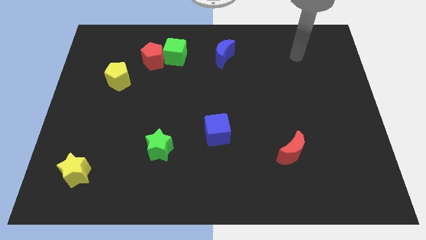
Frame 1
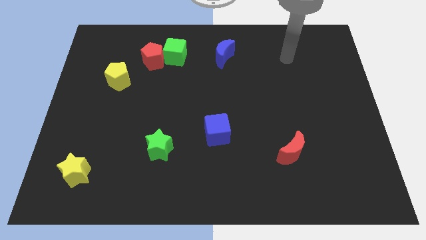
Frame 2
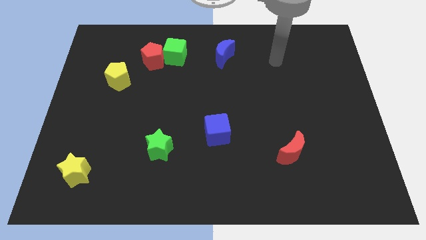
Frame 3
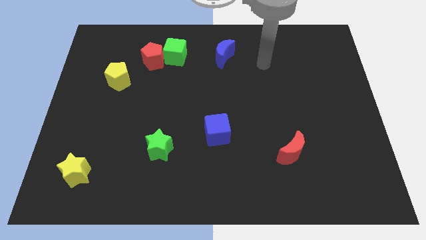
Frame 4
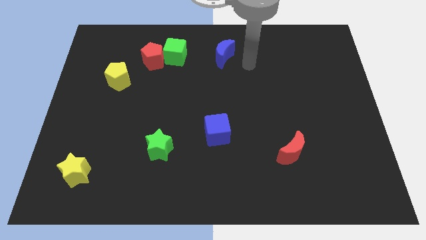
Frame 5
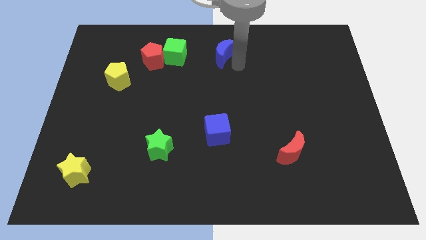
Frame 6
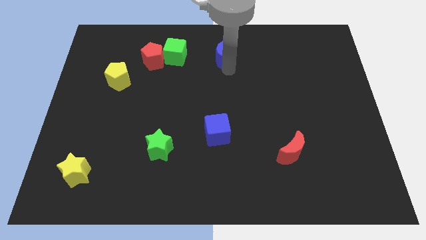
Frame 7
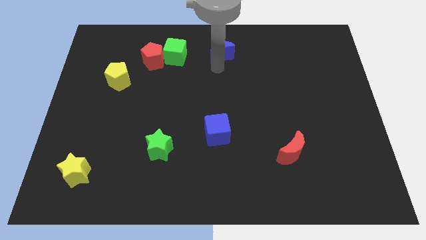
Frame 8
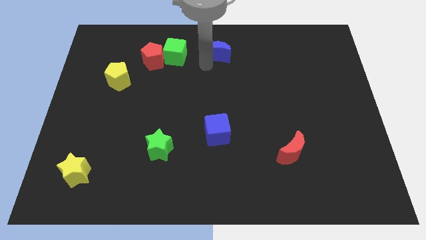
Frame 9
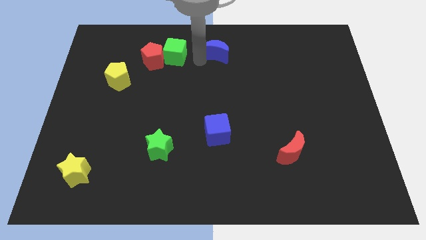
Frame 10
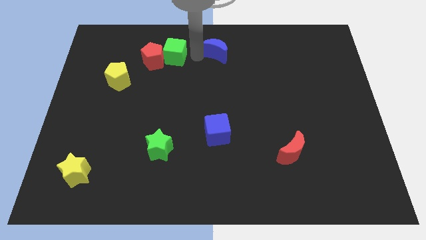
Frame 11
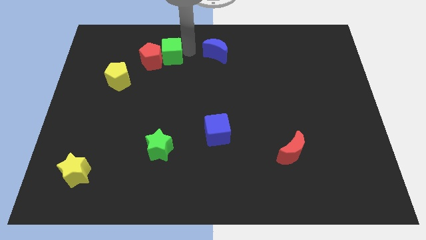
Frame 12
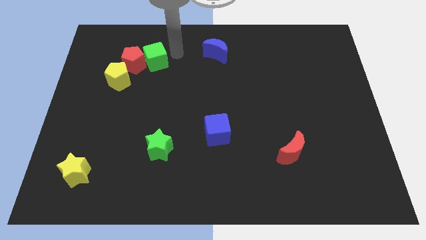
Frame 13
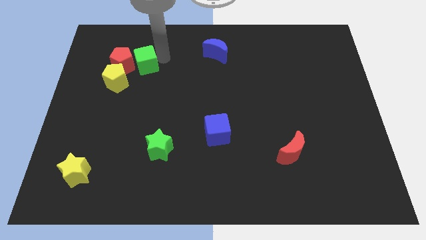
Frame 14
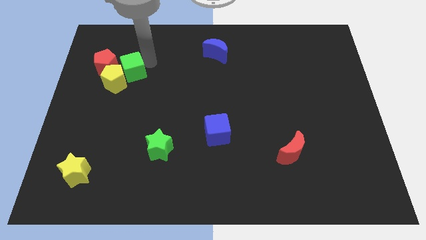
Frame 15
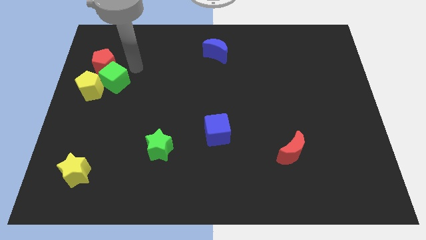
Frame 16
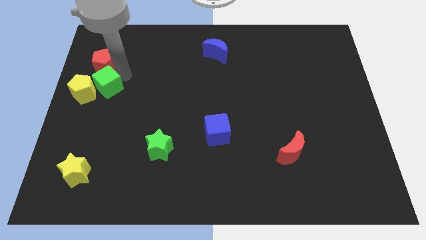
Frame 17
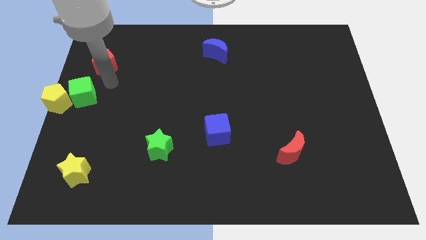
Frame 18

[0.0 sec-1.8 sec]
separate the red pentagon from the green cube

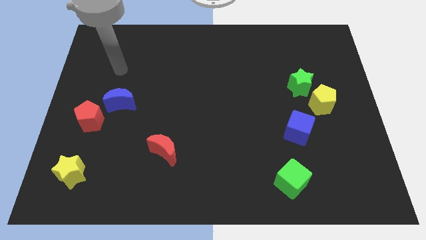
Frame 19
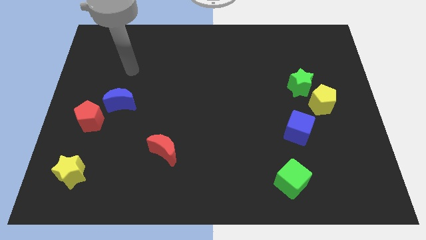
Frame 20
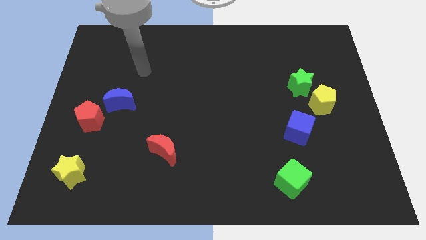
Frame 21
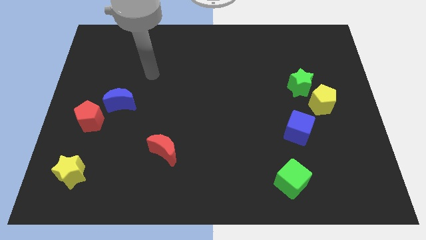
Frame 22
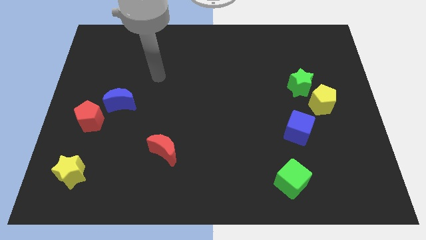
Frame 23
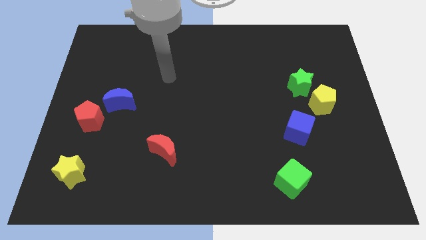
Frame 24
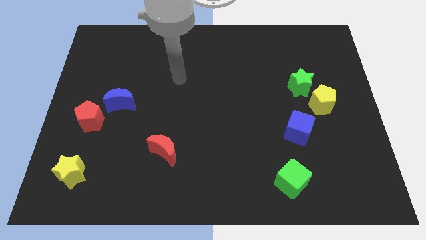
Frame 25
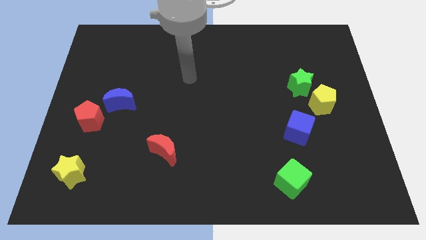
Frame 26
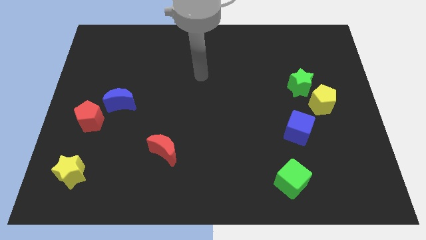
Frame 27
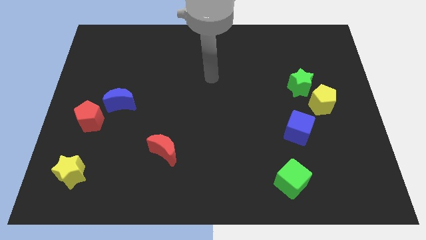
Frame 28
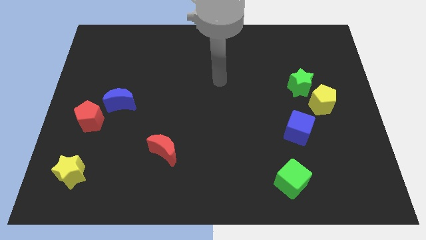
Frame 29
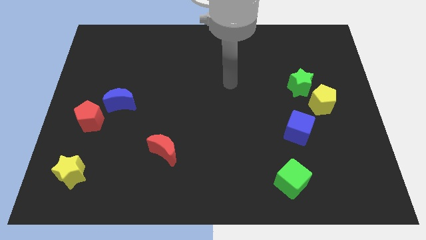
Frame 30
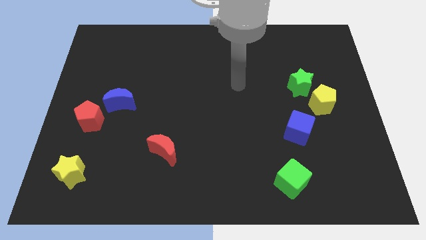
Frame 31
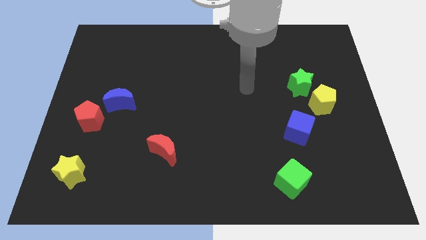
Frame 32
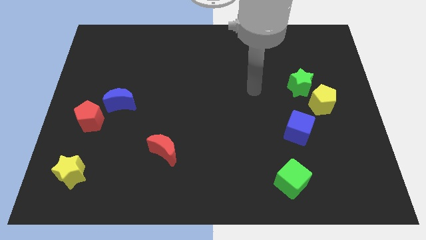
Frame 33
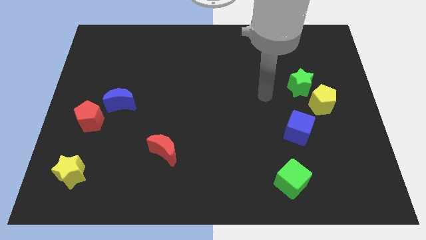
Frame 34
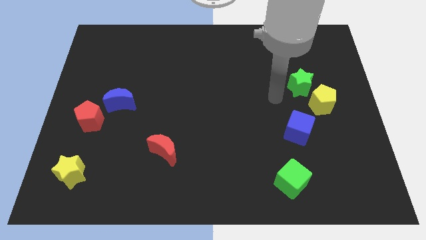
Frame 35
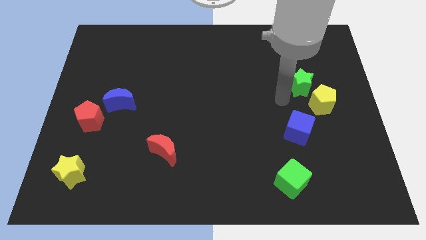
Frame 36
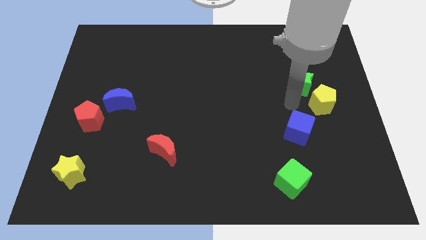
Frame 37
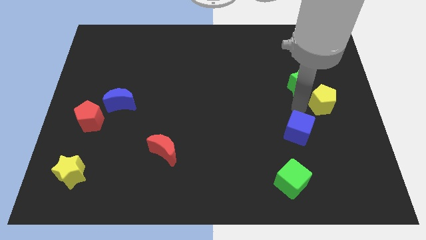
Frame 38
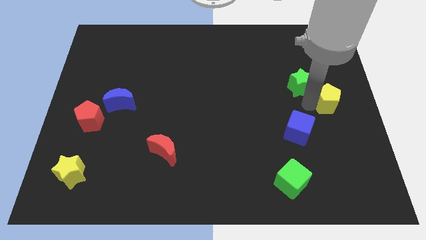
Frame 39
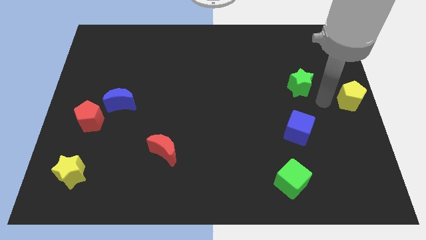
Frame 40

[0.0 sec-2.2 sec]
move the green star away from the yellow pentagon

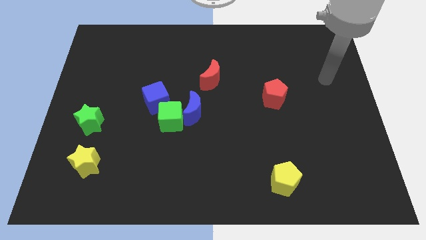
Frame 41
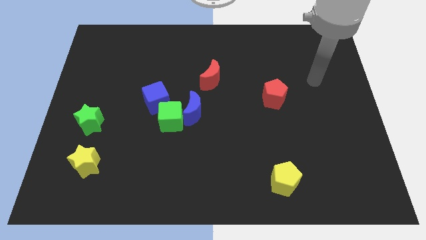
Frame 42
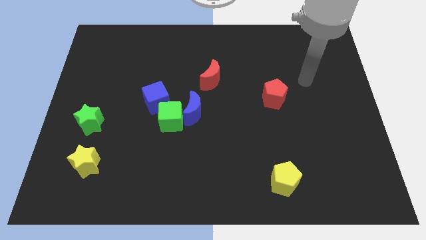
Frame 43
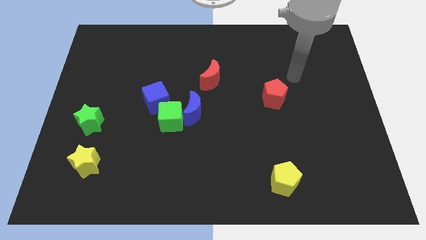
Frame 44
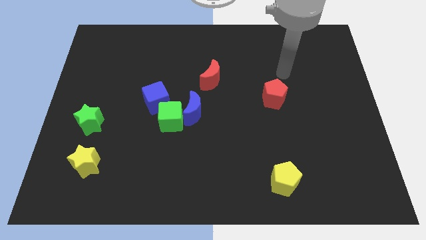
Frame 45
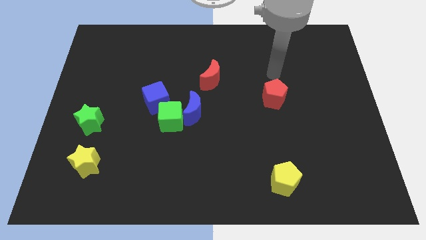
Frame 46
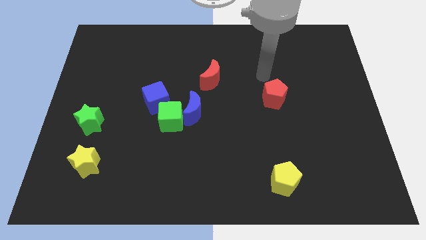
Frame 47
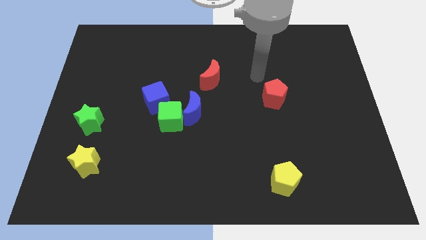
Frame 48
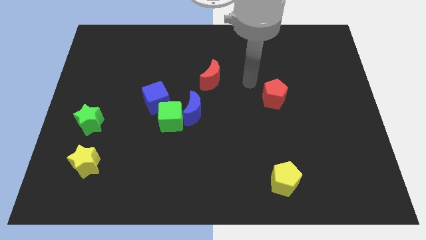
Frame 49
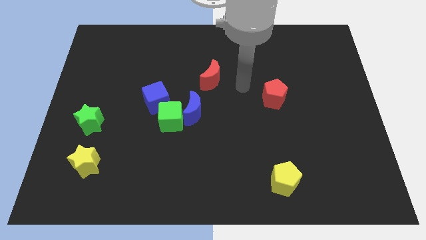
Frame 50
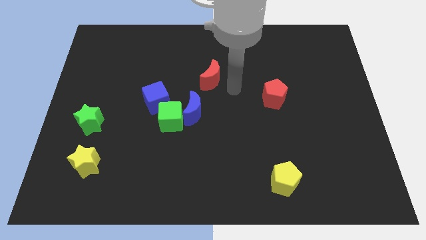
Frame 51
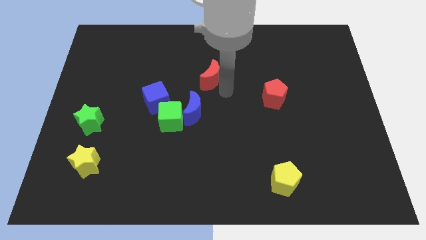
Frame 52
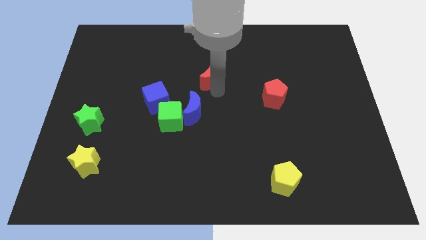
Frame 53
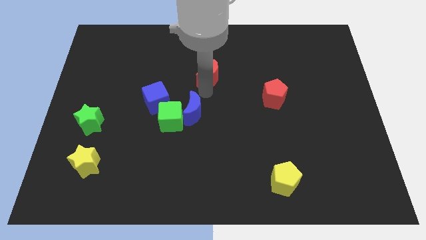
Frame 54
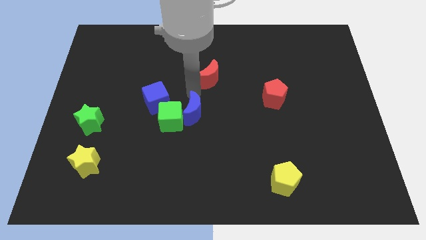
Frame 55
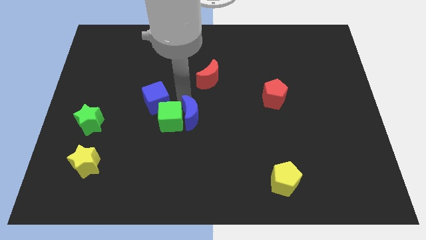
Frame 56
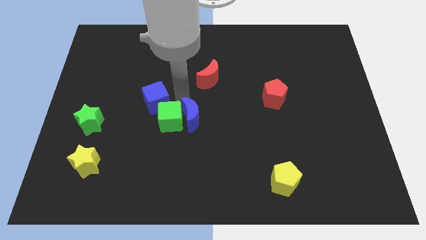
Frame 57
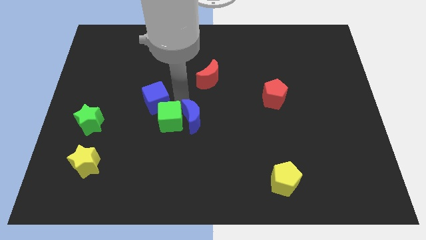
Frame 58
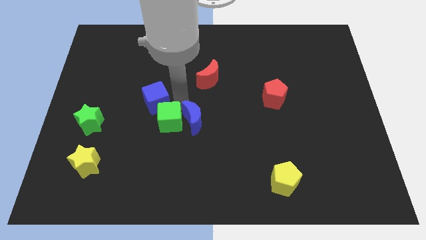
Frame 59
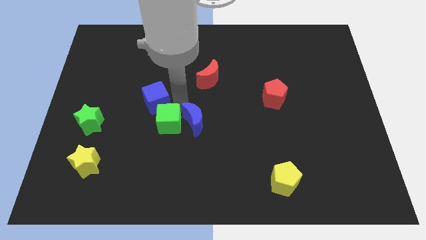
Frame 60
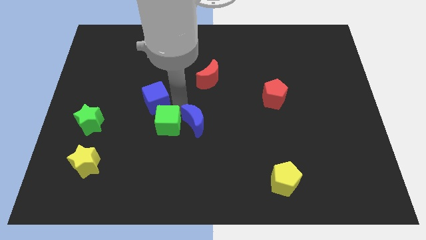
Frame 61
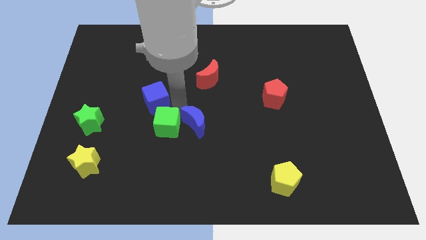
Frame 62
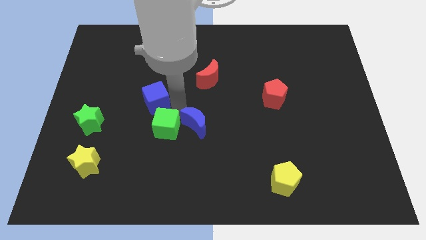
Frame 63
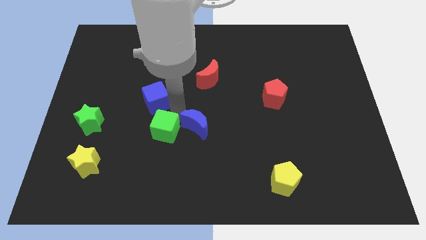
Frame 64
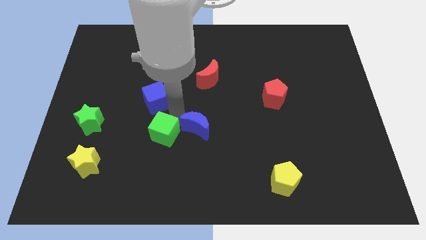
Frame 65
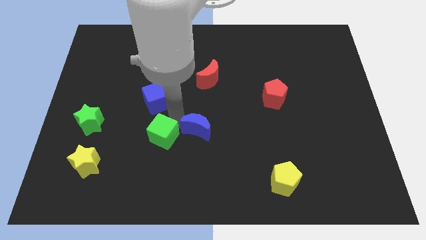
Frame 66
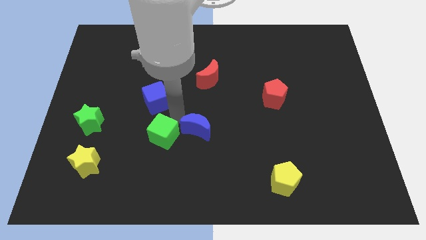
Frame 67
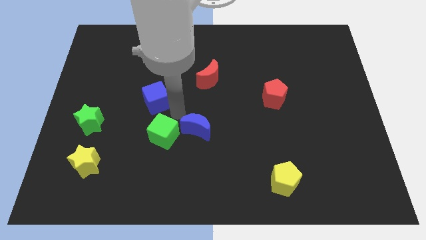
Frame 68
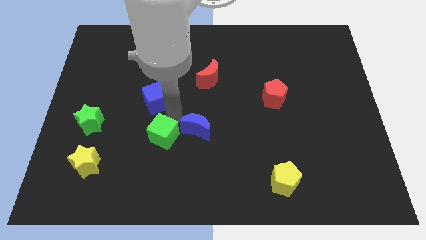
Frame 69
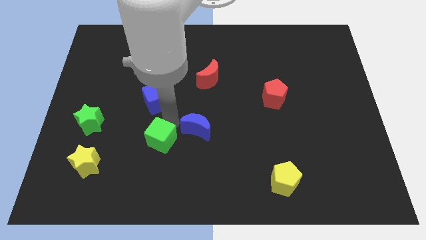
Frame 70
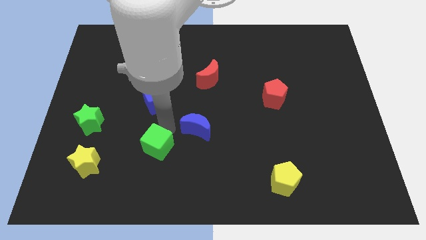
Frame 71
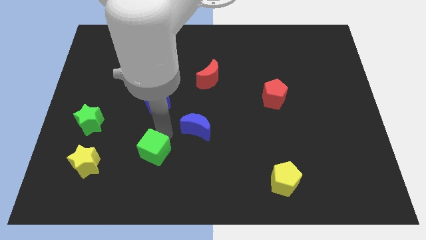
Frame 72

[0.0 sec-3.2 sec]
pull the green cube apart from the blue moon and blue cube

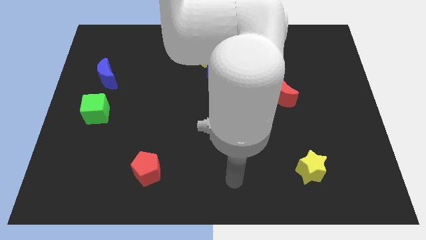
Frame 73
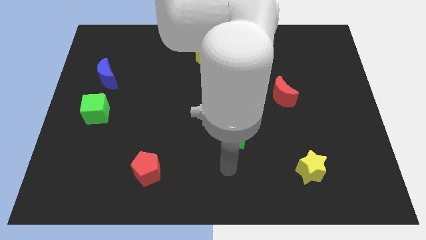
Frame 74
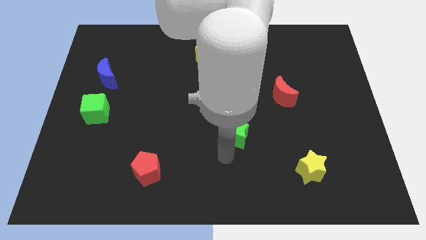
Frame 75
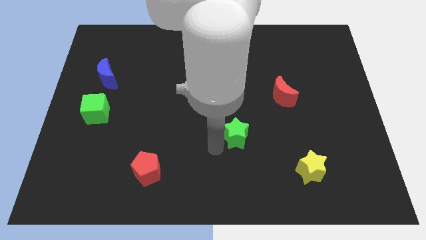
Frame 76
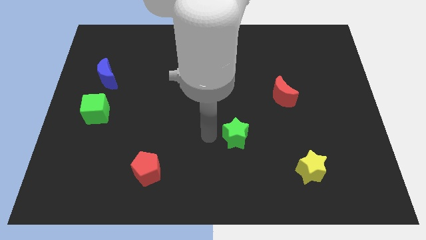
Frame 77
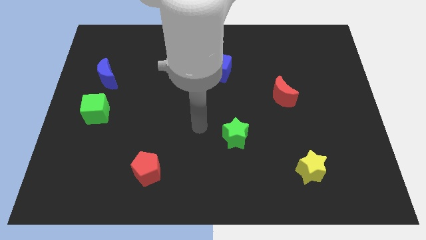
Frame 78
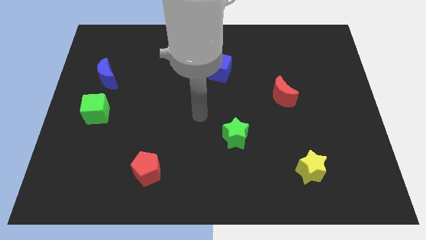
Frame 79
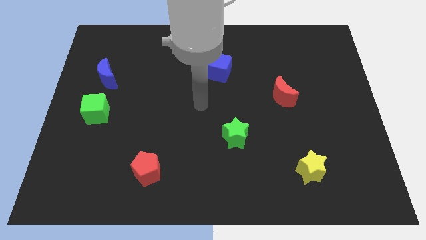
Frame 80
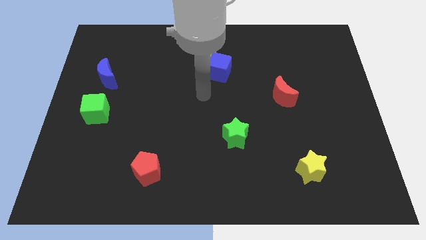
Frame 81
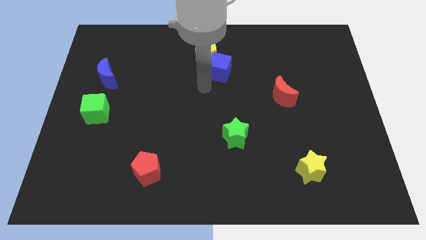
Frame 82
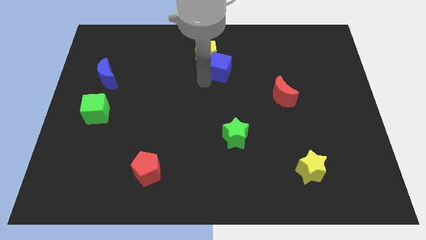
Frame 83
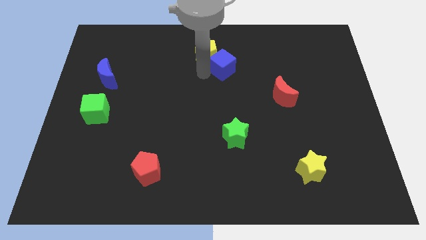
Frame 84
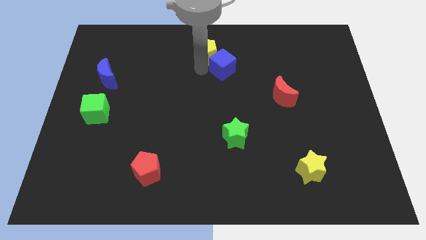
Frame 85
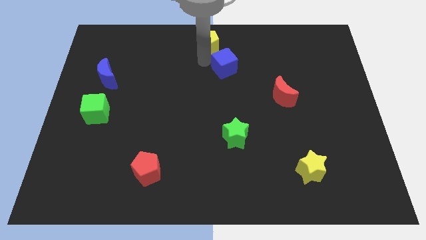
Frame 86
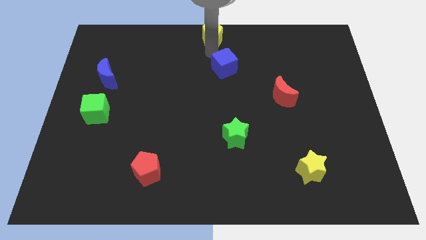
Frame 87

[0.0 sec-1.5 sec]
move the blue cube away from the yellow pentagon

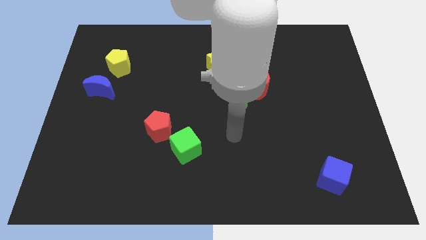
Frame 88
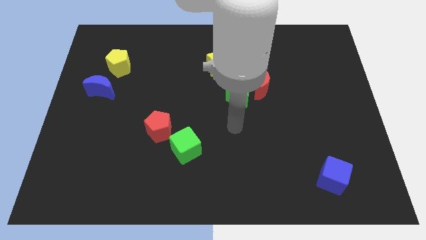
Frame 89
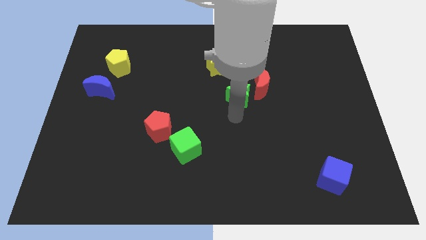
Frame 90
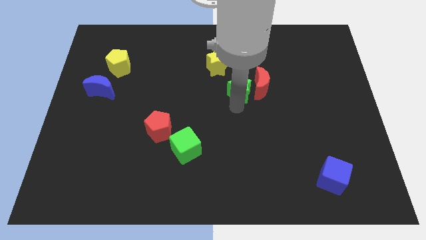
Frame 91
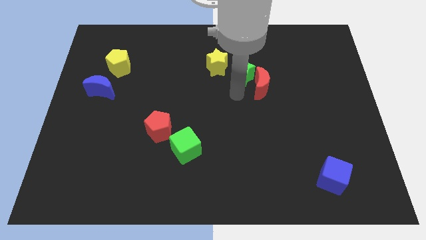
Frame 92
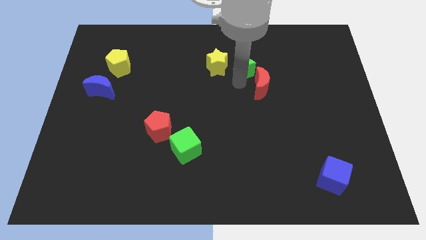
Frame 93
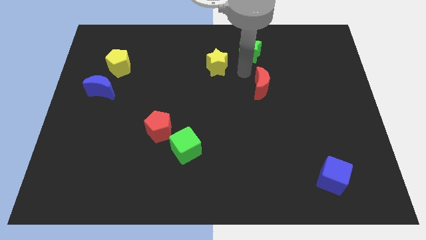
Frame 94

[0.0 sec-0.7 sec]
pull the red moon apart from the green star

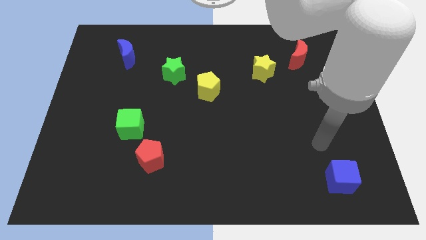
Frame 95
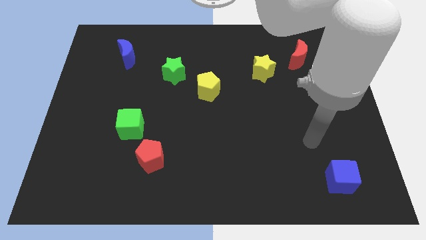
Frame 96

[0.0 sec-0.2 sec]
pull the red pentagon apart from the green cube
